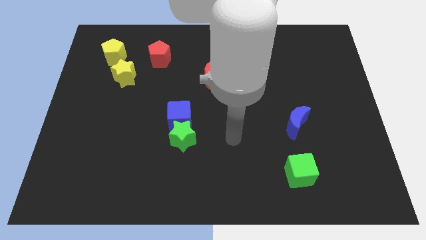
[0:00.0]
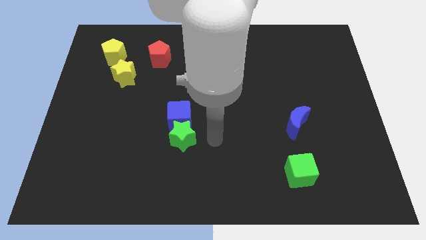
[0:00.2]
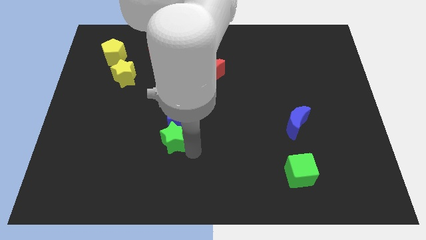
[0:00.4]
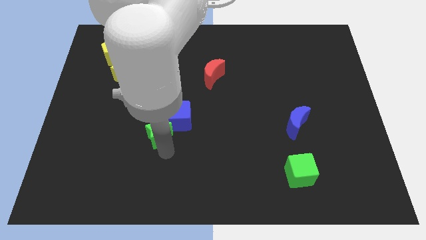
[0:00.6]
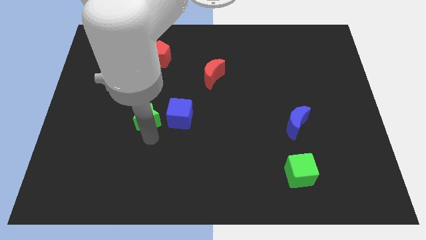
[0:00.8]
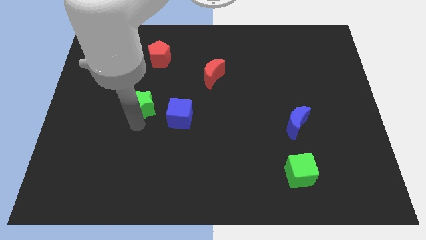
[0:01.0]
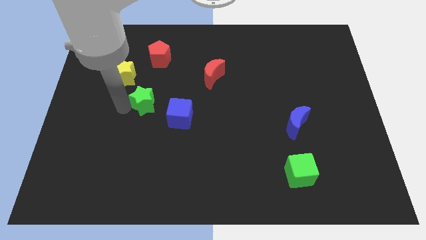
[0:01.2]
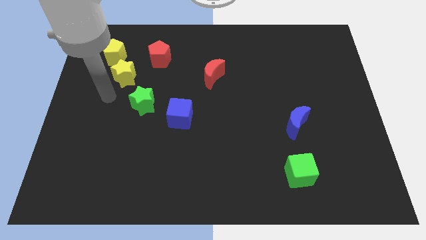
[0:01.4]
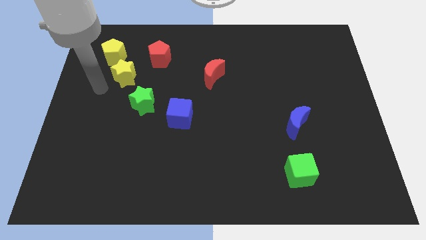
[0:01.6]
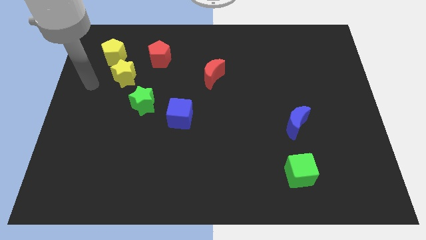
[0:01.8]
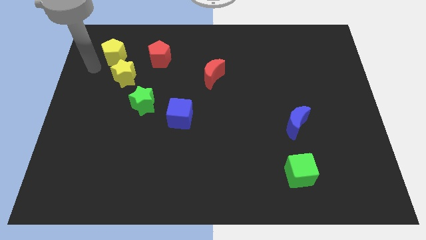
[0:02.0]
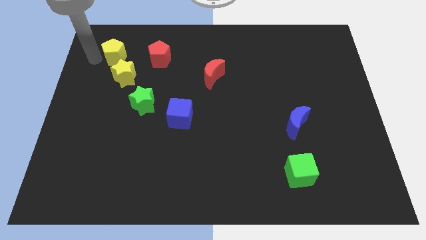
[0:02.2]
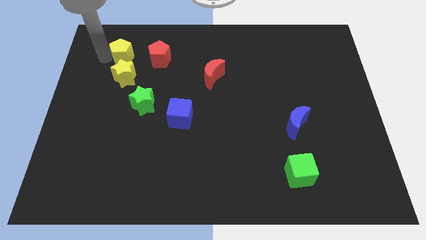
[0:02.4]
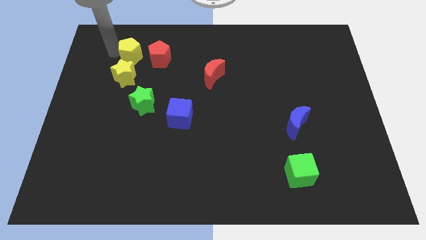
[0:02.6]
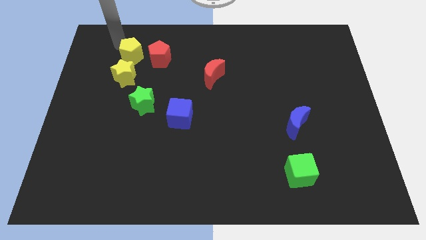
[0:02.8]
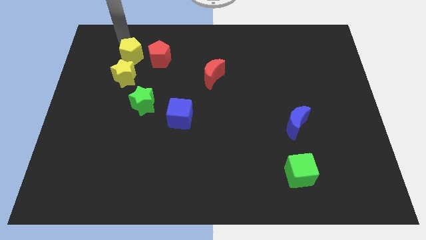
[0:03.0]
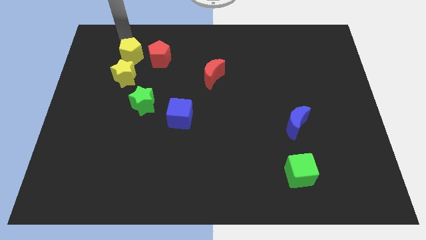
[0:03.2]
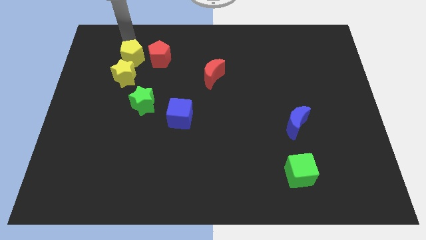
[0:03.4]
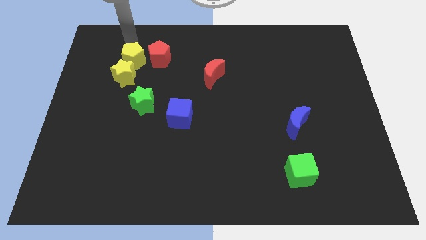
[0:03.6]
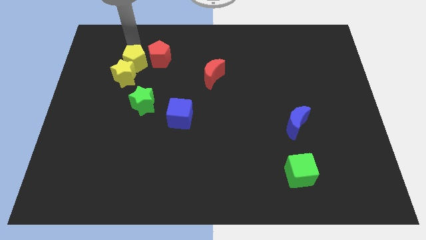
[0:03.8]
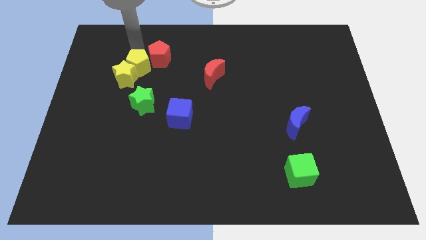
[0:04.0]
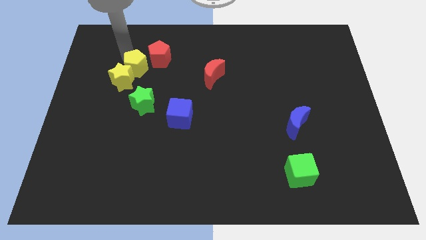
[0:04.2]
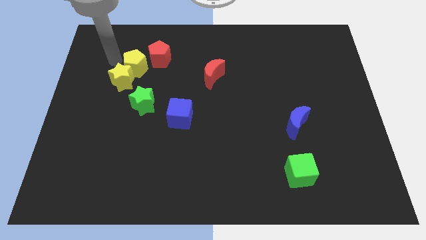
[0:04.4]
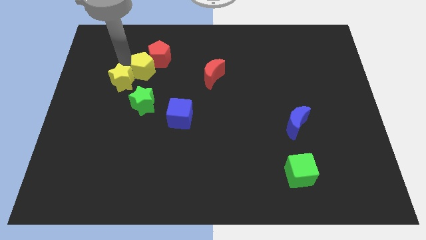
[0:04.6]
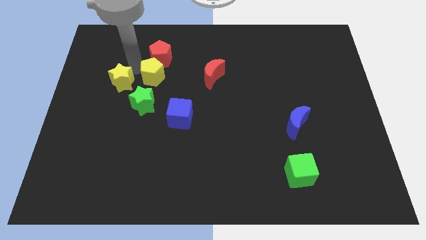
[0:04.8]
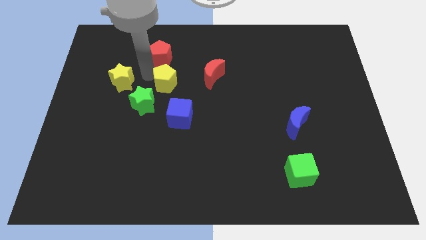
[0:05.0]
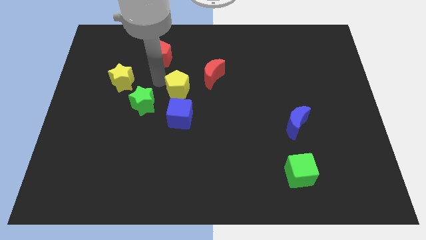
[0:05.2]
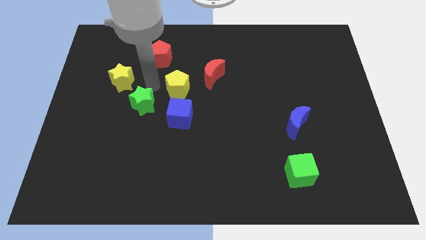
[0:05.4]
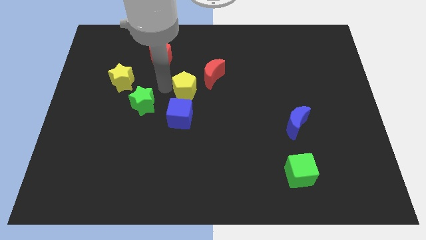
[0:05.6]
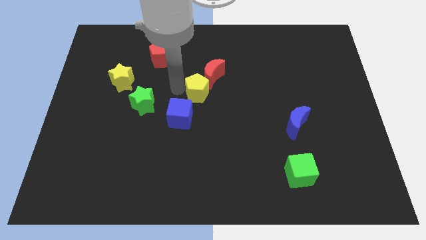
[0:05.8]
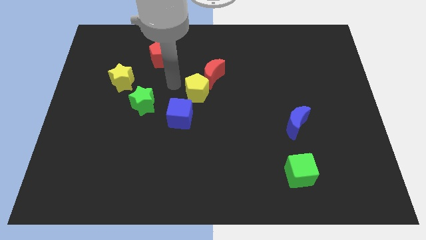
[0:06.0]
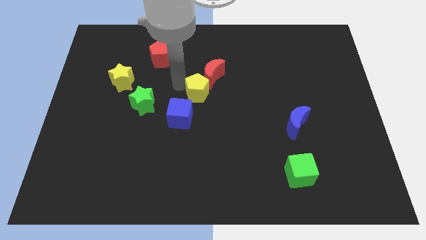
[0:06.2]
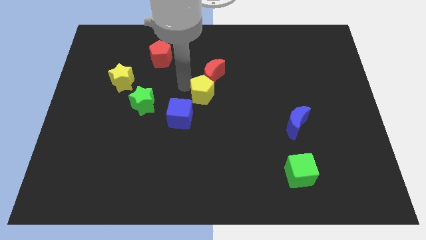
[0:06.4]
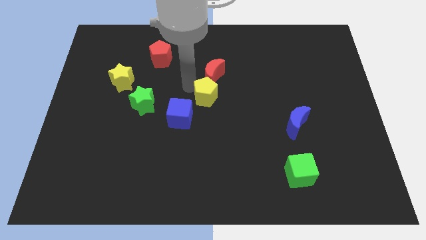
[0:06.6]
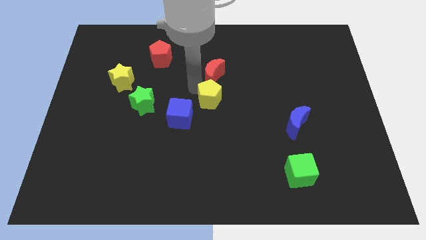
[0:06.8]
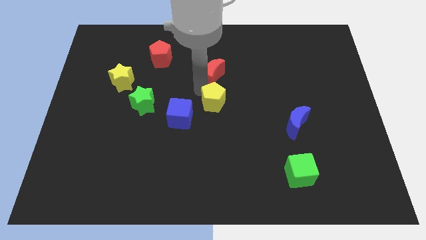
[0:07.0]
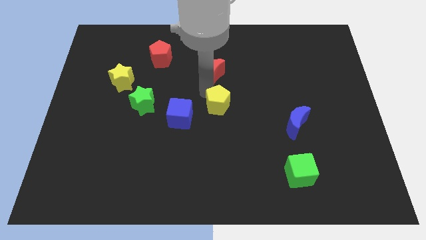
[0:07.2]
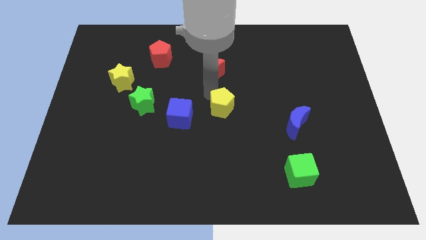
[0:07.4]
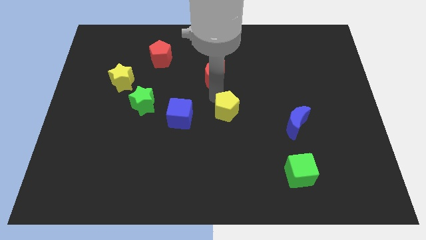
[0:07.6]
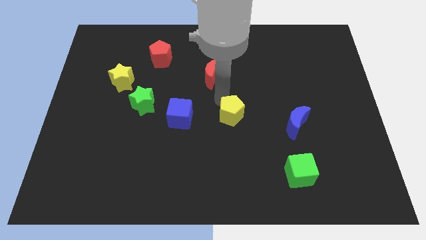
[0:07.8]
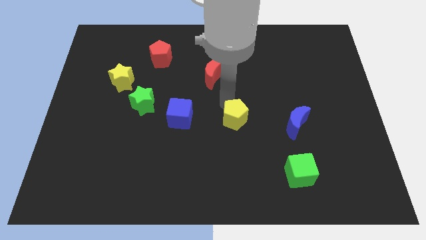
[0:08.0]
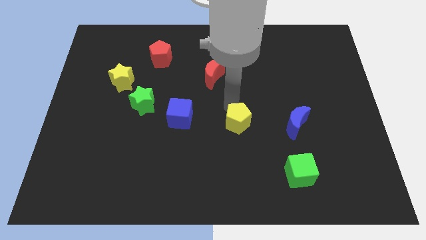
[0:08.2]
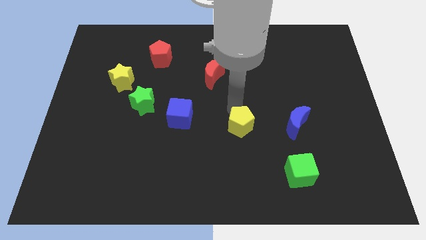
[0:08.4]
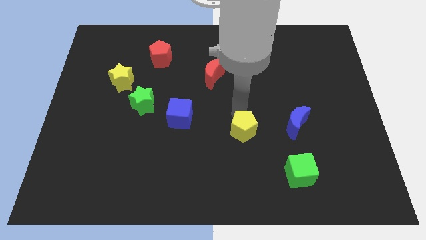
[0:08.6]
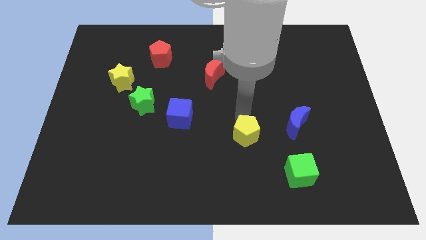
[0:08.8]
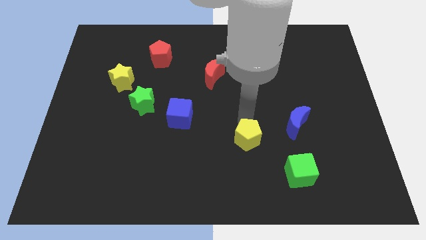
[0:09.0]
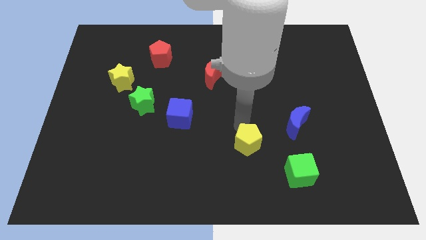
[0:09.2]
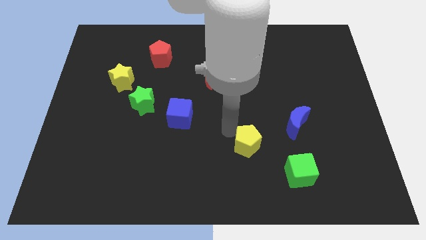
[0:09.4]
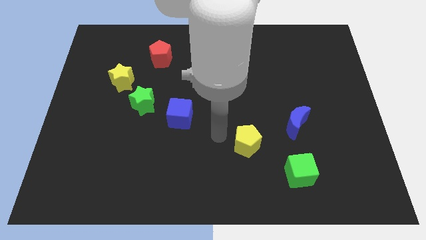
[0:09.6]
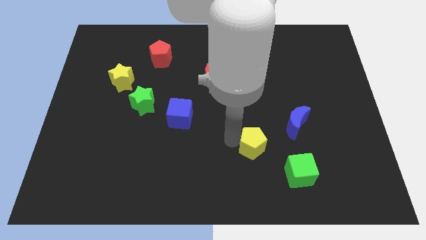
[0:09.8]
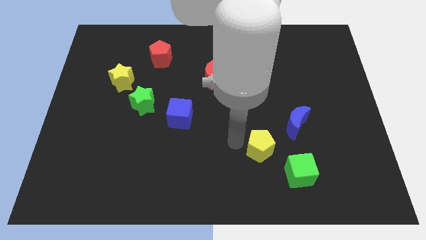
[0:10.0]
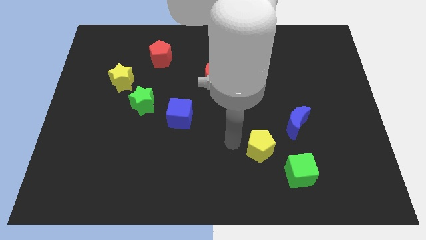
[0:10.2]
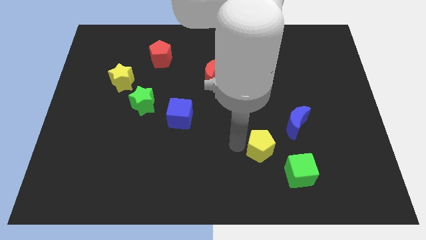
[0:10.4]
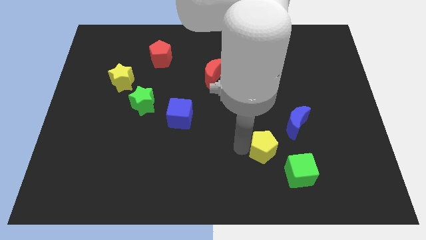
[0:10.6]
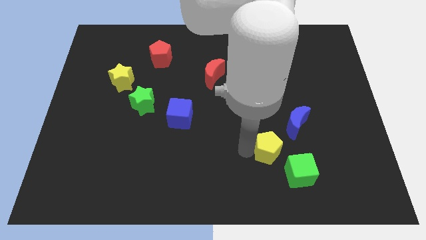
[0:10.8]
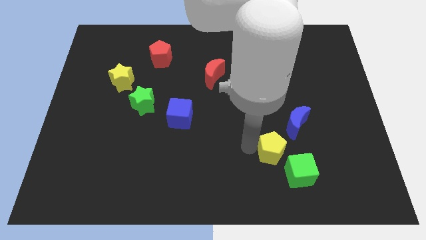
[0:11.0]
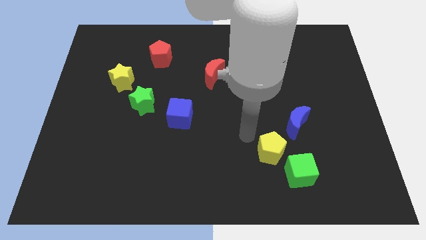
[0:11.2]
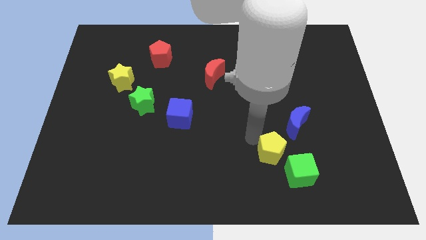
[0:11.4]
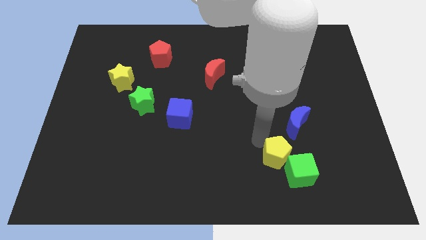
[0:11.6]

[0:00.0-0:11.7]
push the yellow pentagon towards the green cube

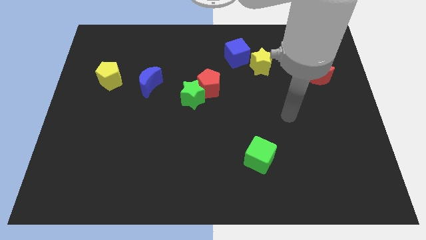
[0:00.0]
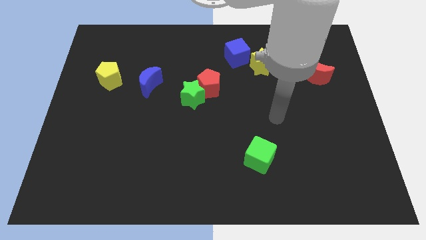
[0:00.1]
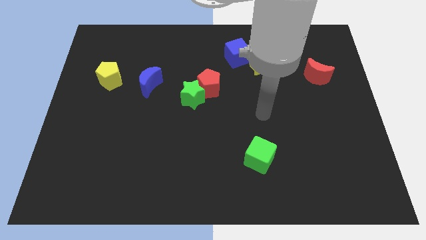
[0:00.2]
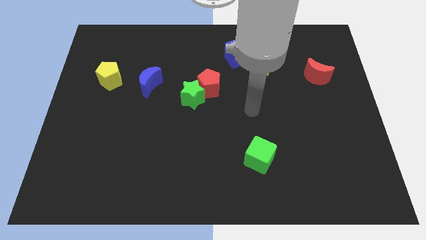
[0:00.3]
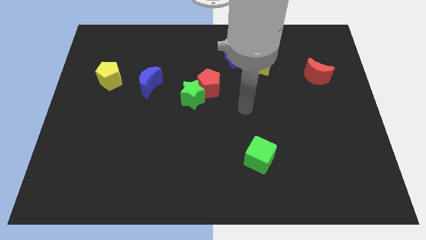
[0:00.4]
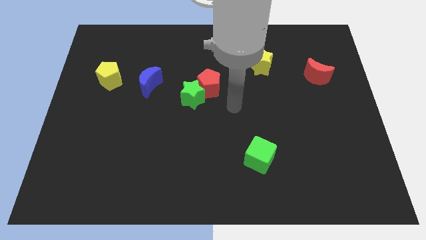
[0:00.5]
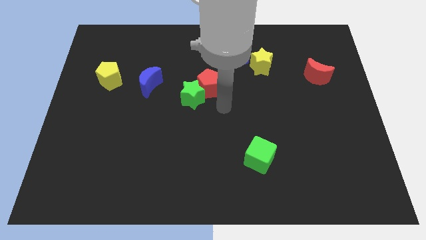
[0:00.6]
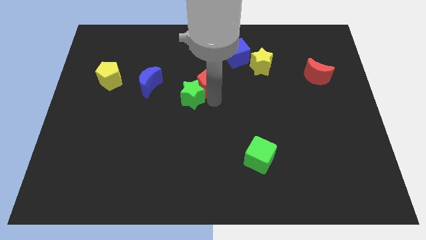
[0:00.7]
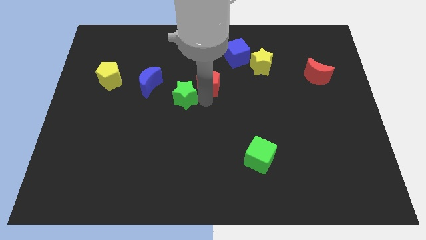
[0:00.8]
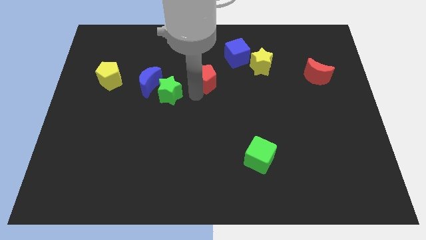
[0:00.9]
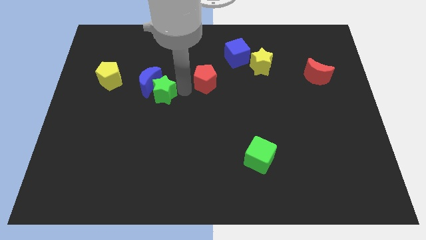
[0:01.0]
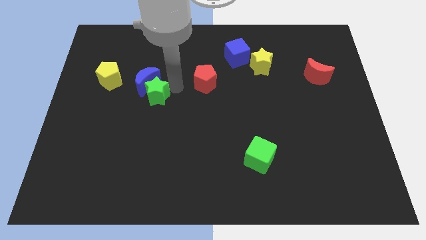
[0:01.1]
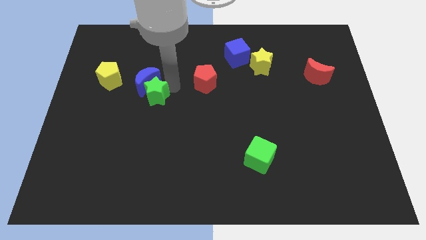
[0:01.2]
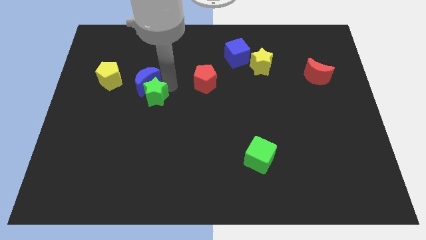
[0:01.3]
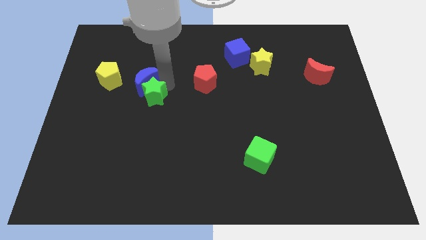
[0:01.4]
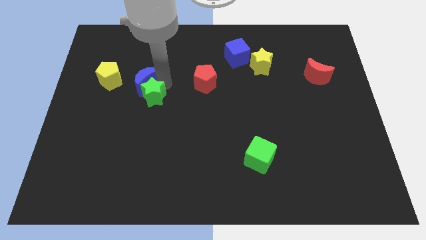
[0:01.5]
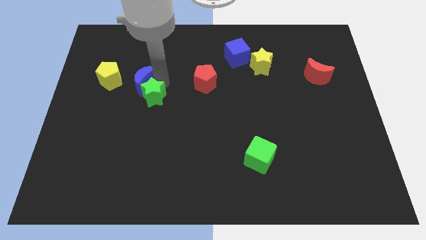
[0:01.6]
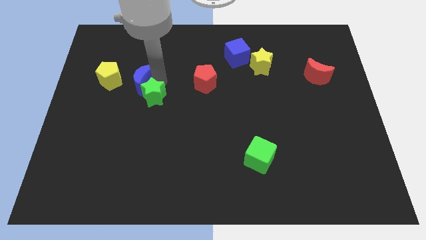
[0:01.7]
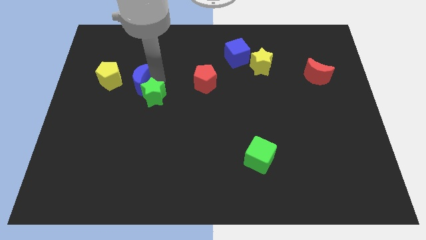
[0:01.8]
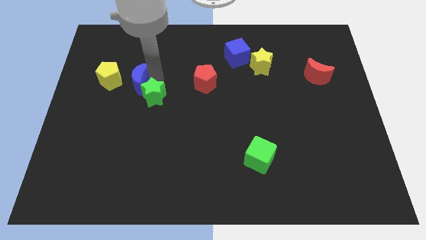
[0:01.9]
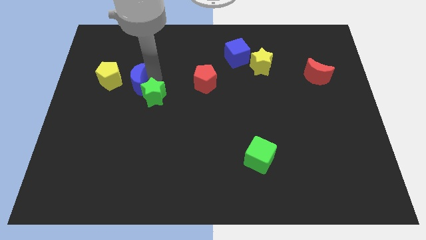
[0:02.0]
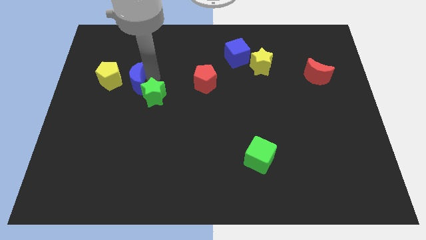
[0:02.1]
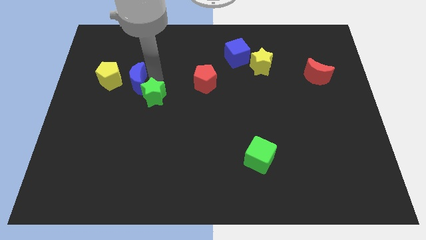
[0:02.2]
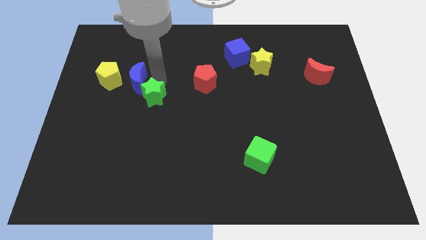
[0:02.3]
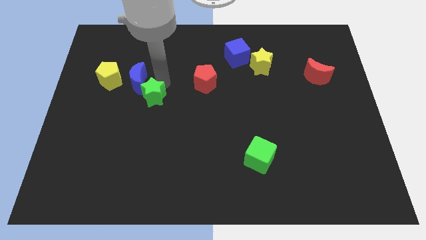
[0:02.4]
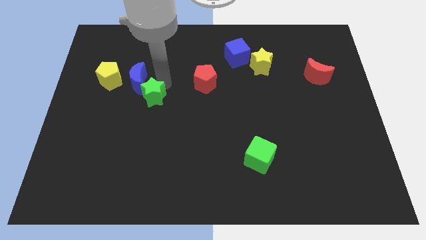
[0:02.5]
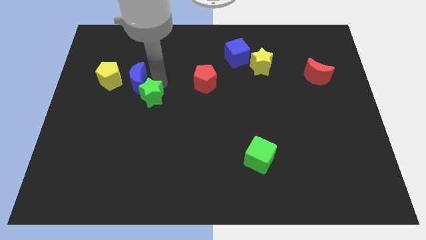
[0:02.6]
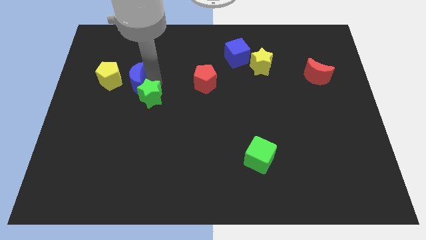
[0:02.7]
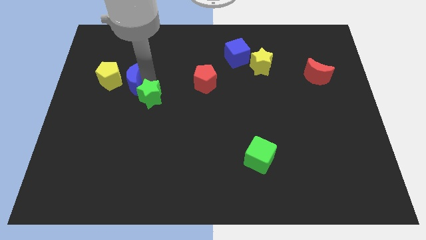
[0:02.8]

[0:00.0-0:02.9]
push the blue moon next to the yellow pentagon
